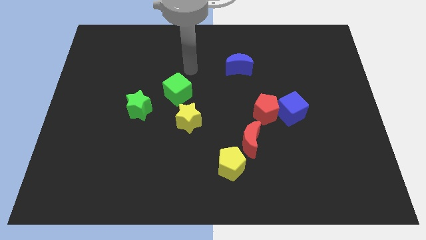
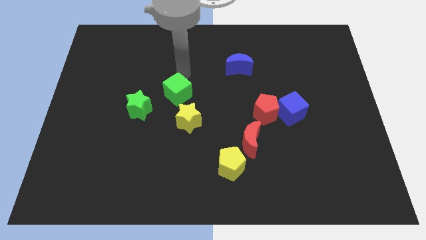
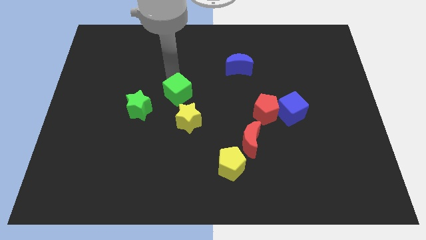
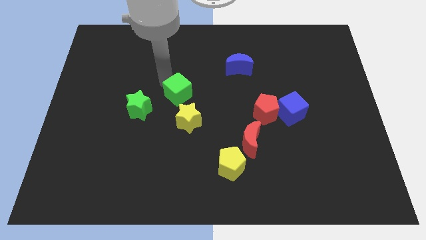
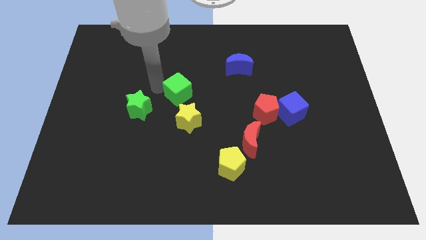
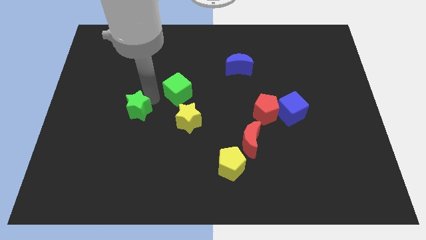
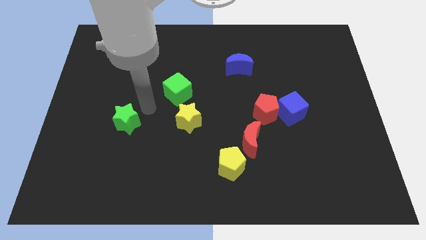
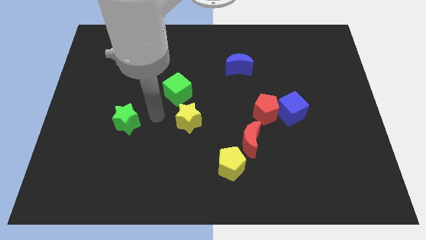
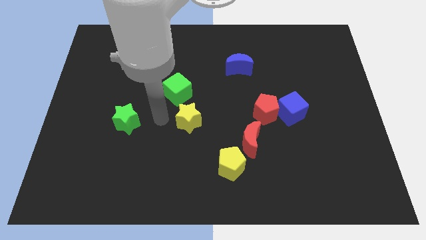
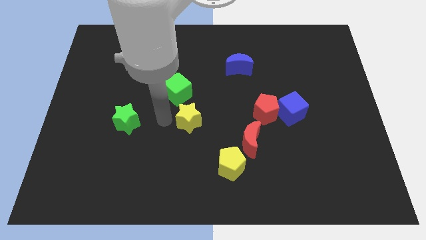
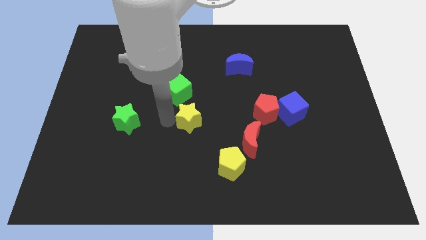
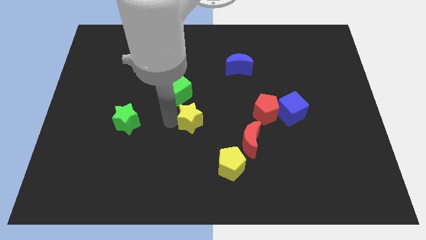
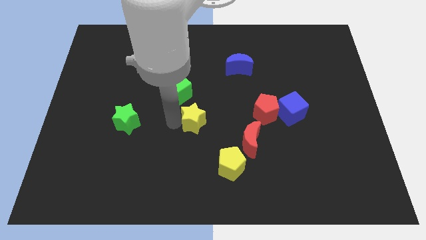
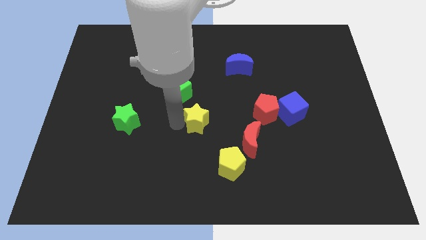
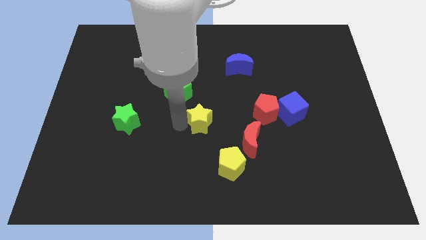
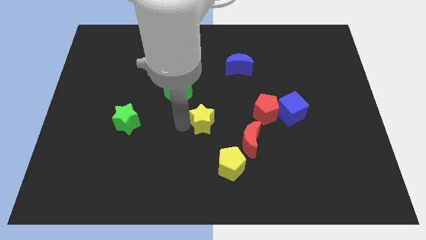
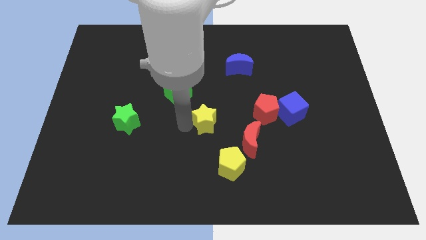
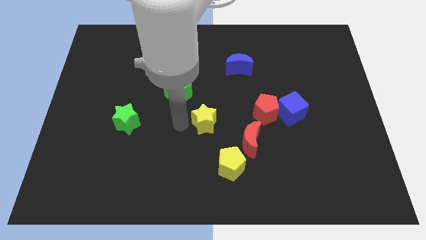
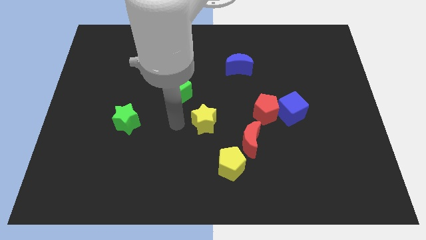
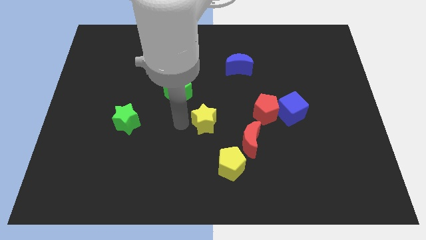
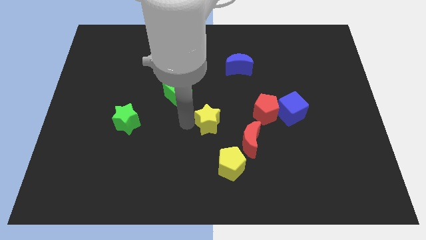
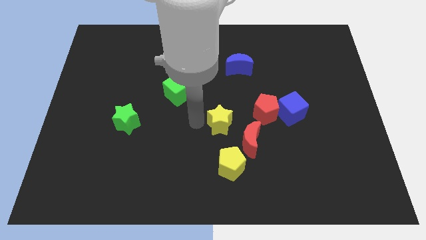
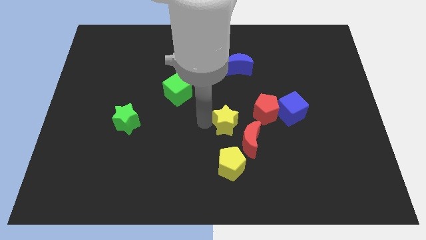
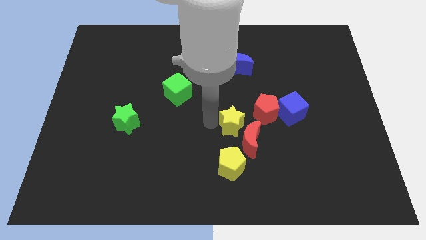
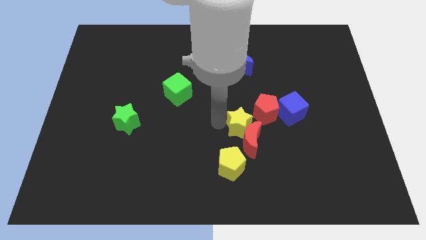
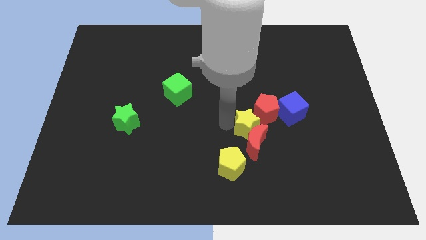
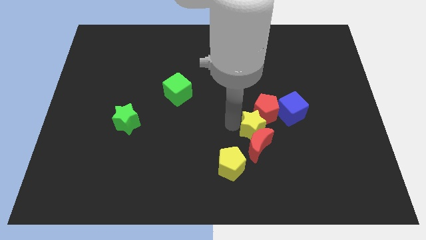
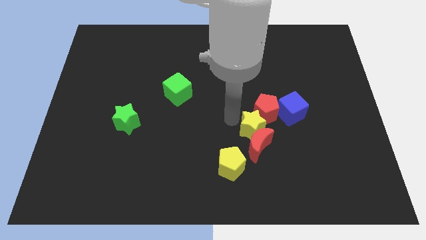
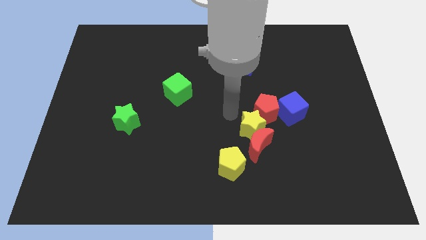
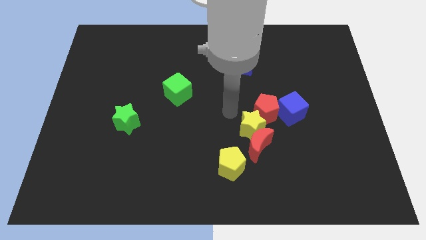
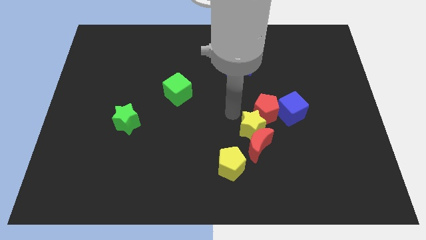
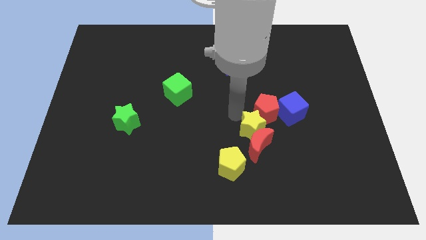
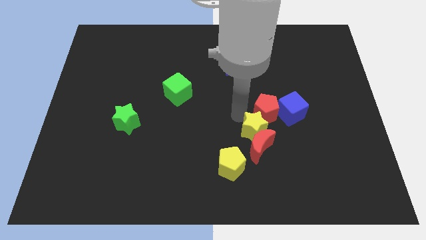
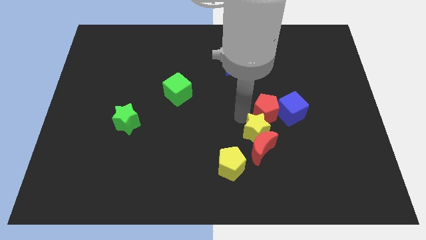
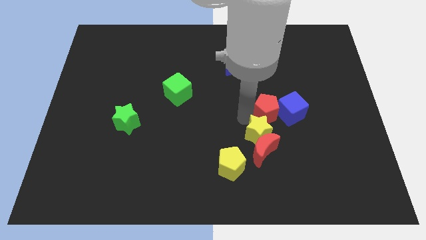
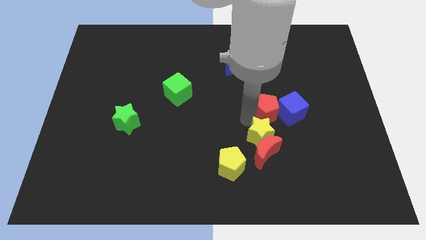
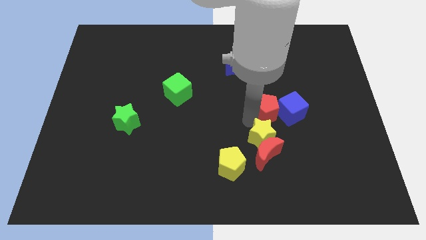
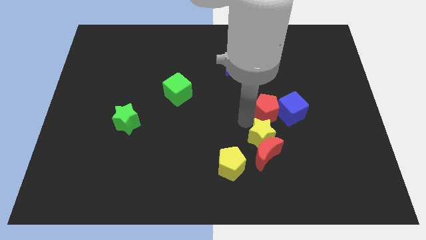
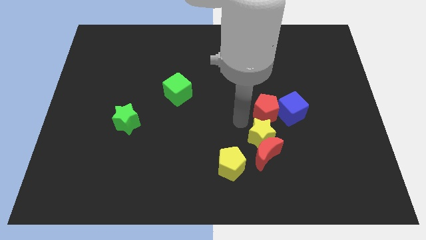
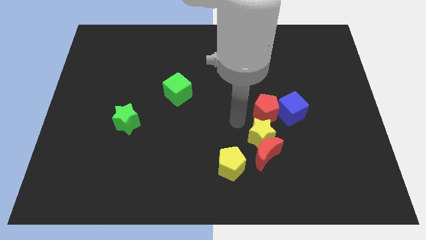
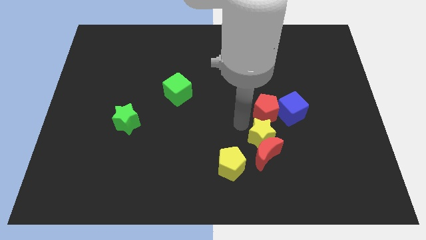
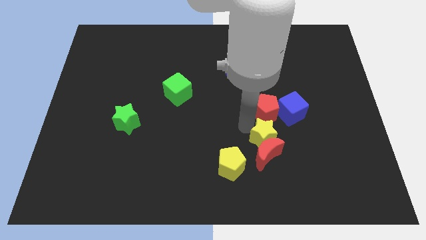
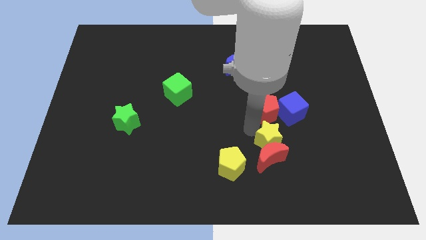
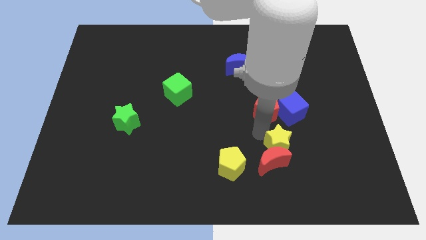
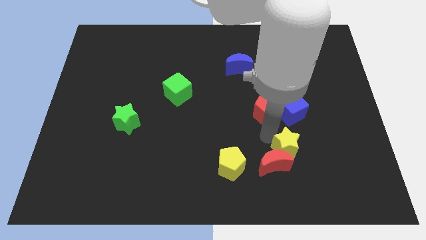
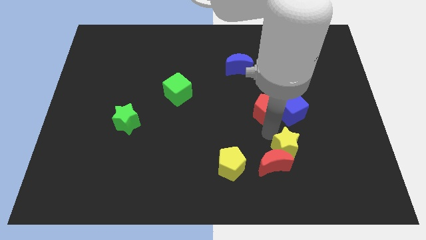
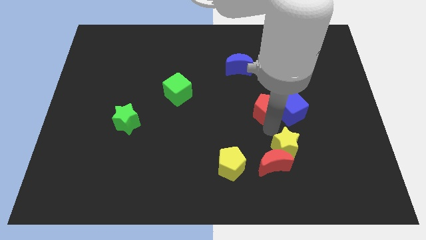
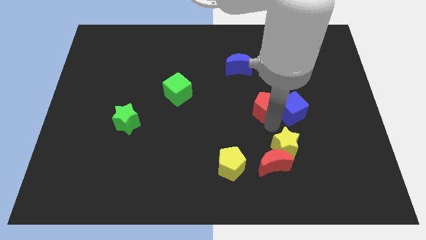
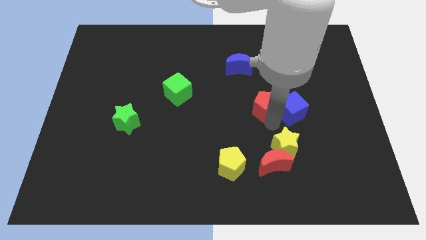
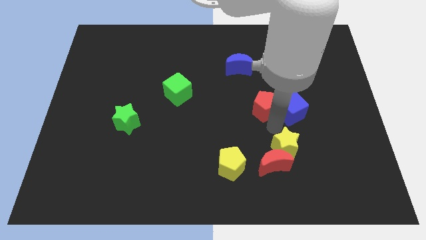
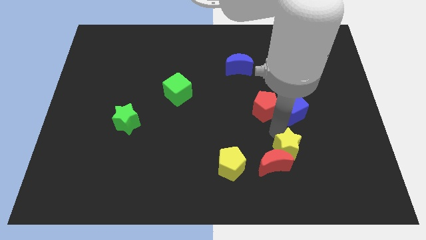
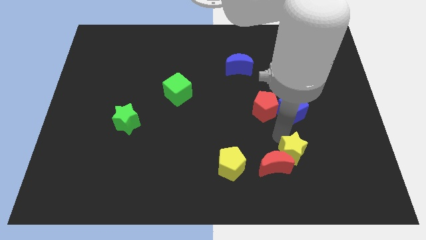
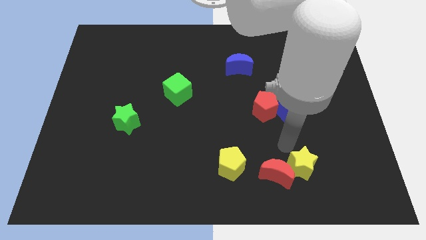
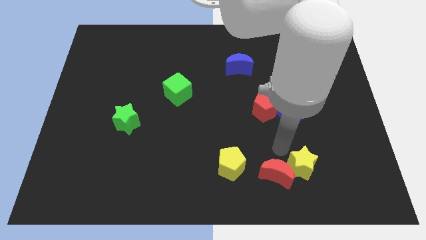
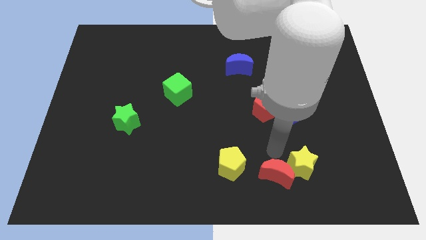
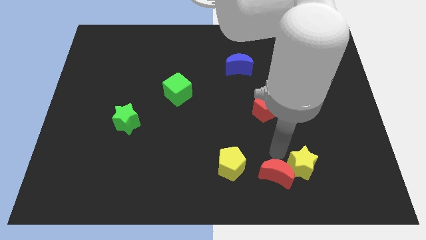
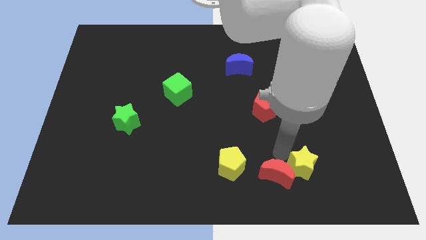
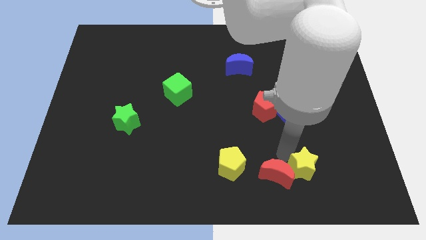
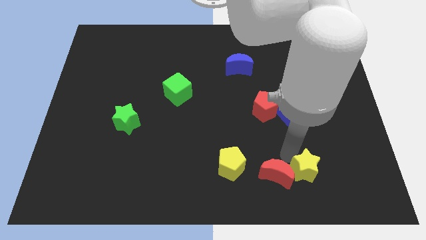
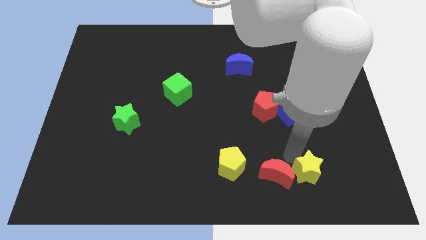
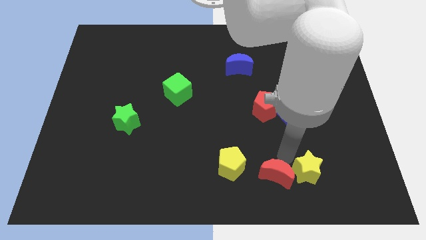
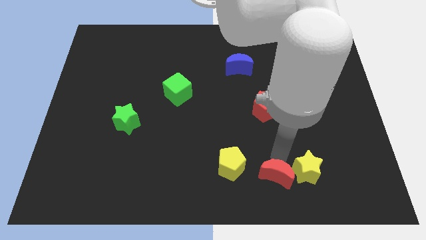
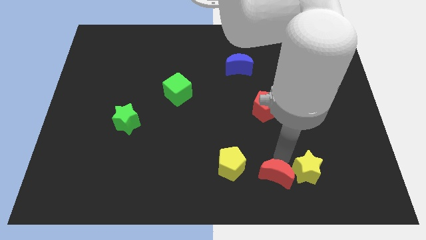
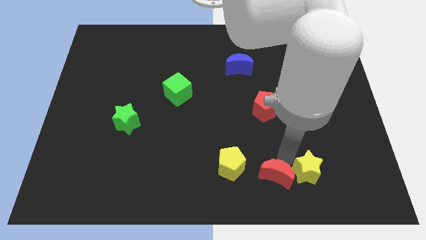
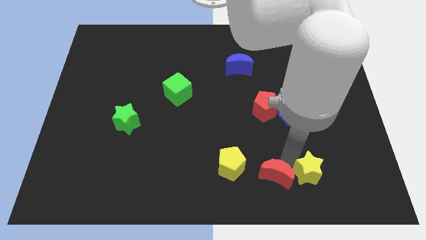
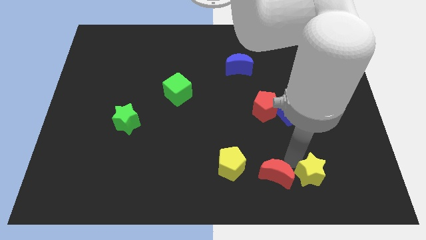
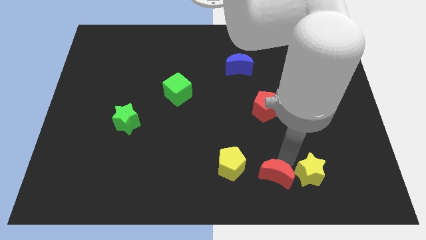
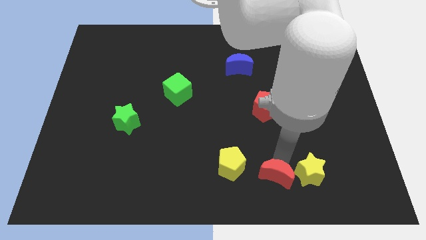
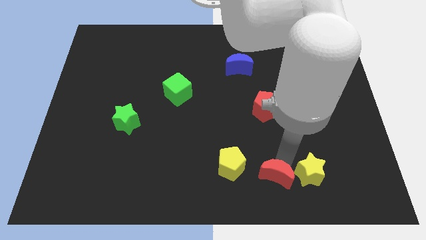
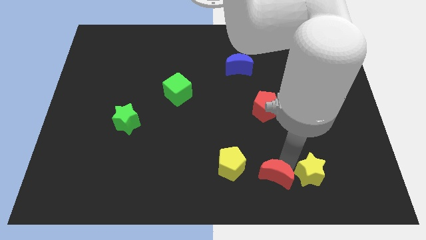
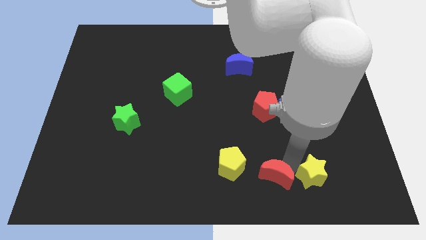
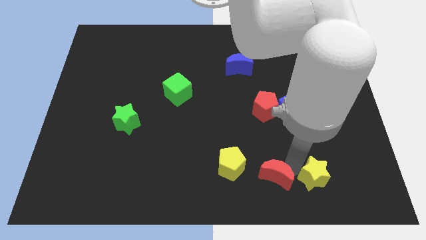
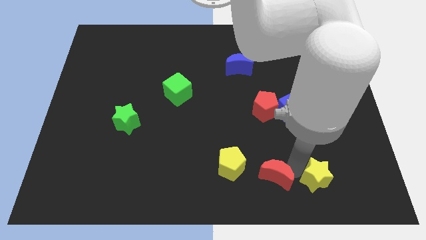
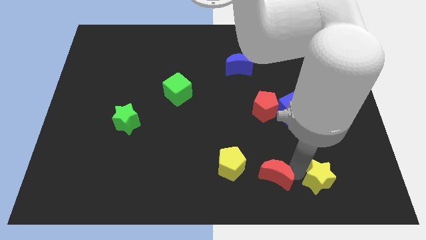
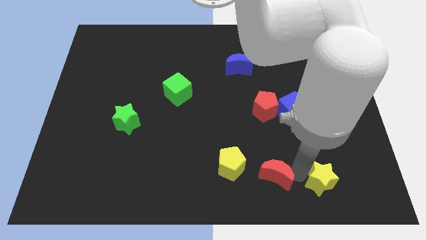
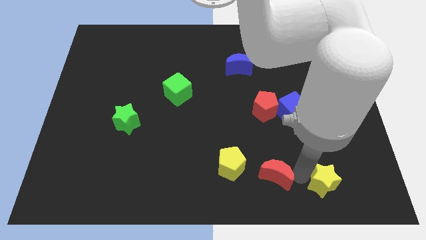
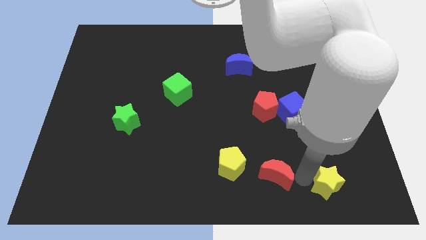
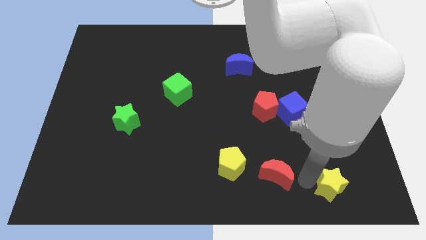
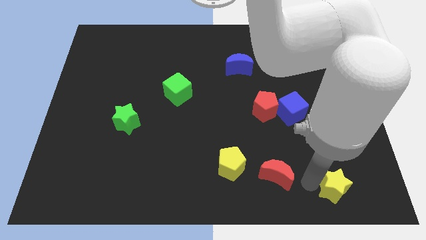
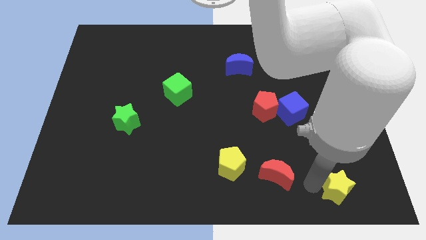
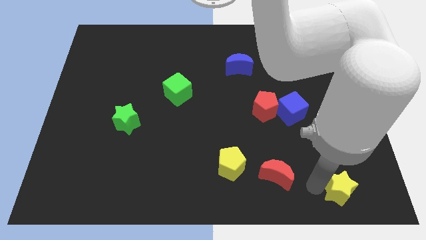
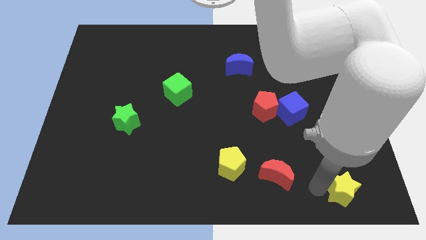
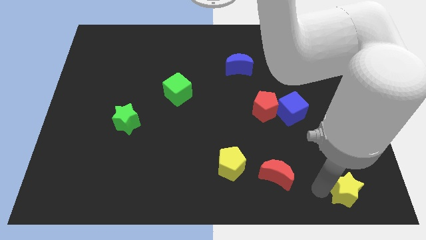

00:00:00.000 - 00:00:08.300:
move the yellow star to the bottom right
